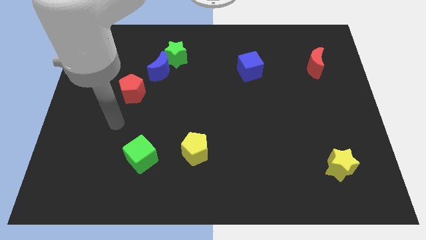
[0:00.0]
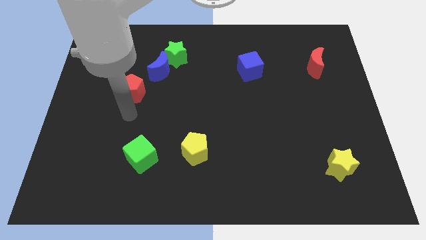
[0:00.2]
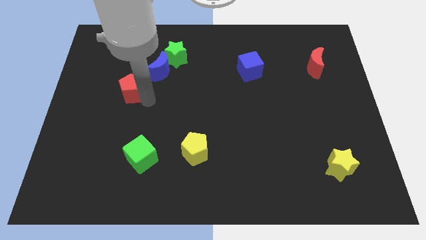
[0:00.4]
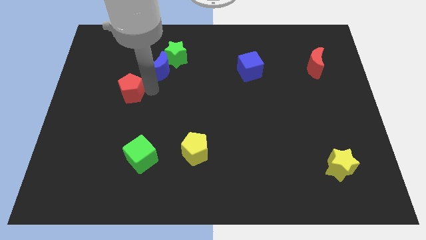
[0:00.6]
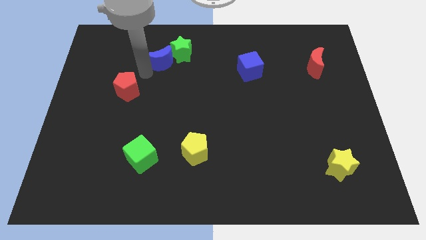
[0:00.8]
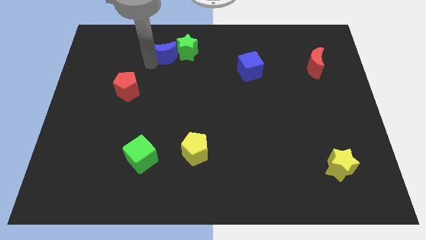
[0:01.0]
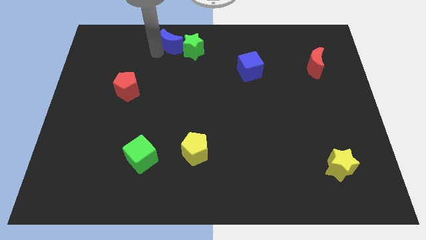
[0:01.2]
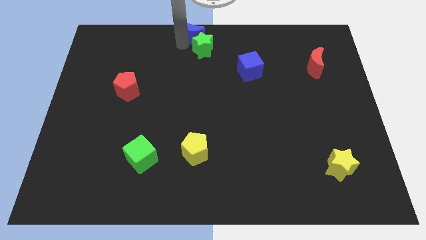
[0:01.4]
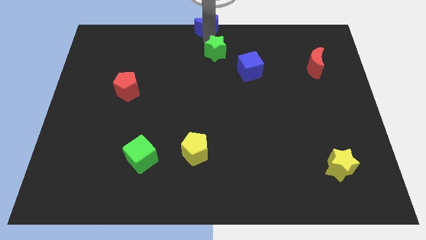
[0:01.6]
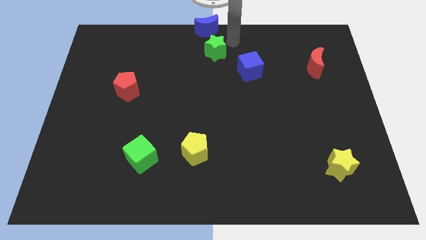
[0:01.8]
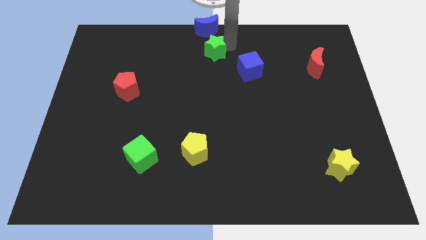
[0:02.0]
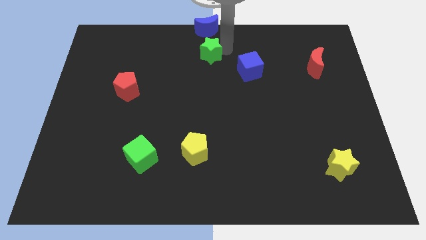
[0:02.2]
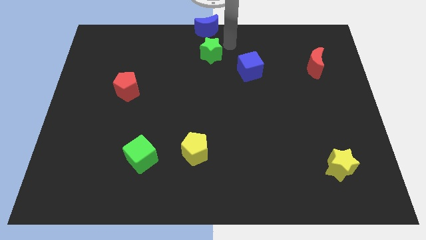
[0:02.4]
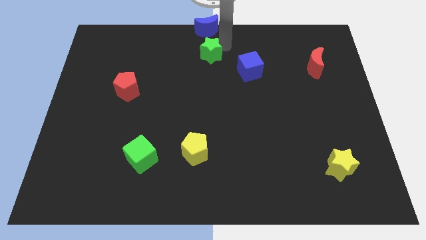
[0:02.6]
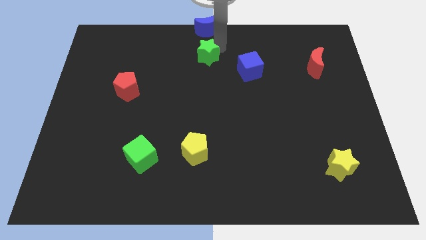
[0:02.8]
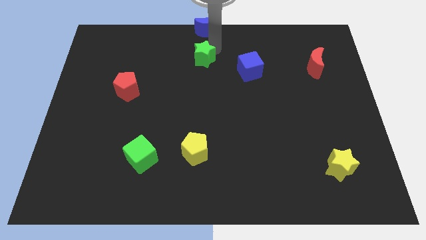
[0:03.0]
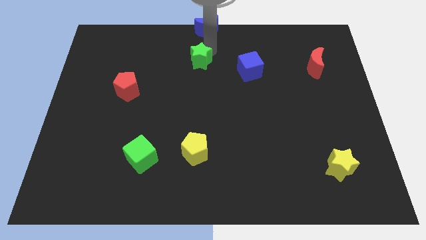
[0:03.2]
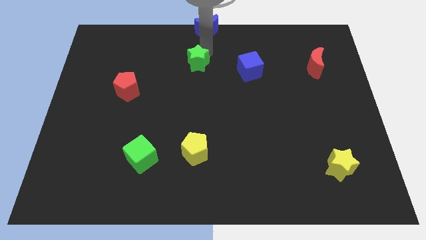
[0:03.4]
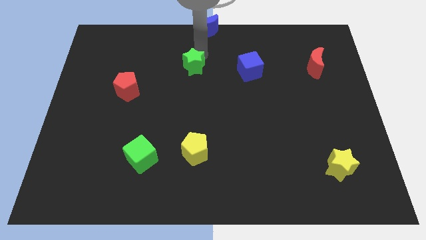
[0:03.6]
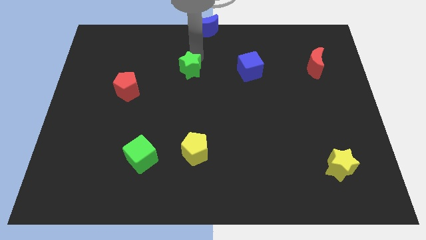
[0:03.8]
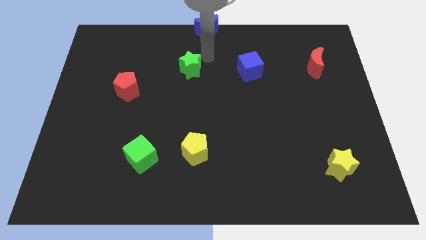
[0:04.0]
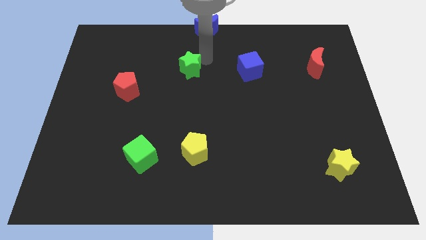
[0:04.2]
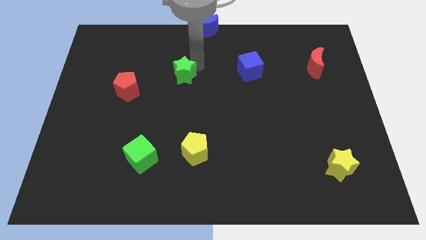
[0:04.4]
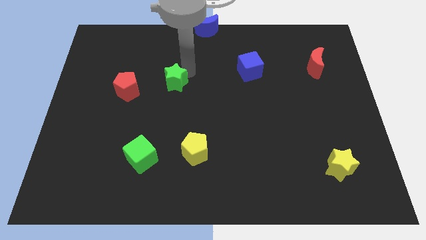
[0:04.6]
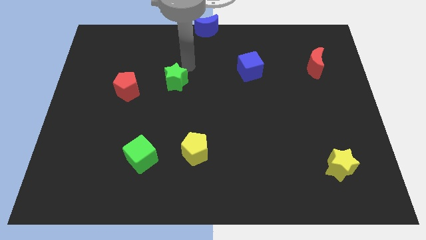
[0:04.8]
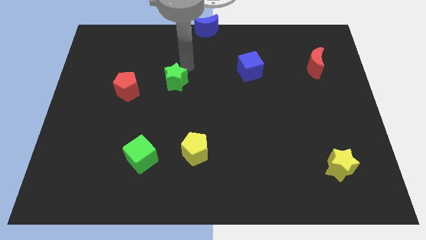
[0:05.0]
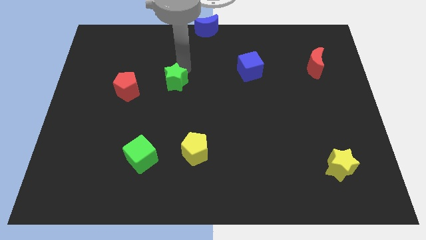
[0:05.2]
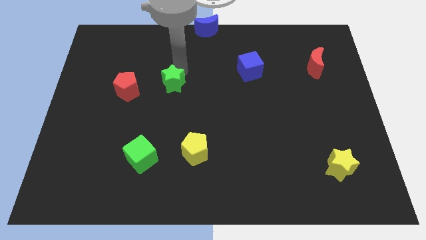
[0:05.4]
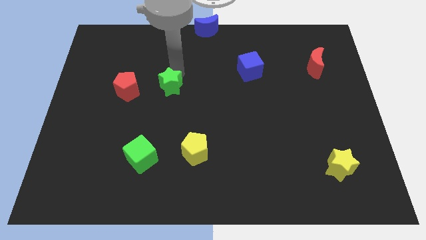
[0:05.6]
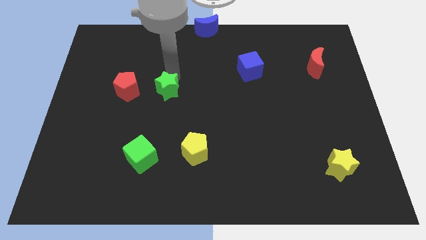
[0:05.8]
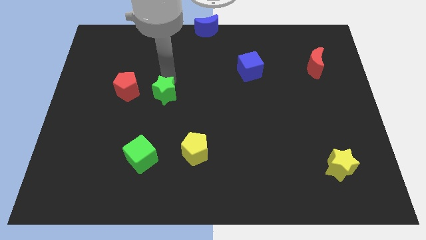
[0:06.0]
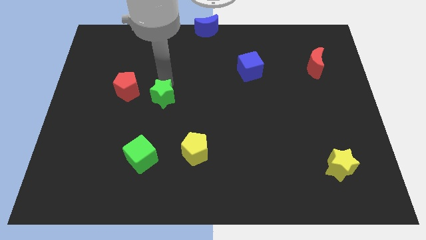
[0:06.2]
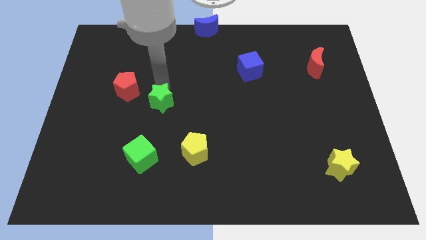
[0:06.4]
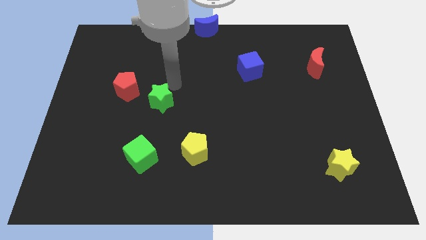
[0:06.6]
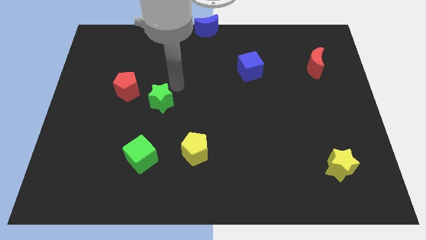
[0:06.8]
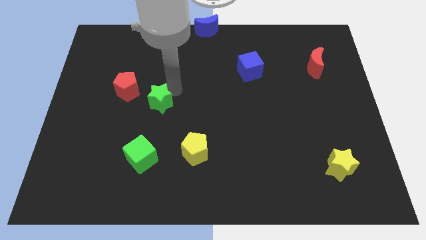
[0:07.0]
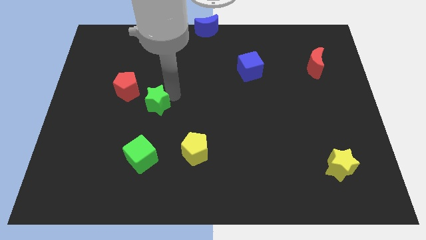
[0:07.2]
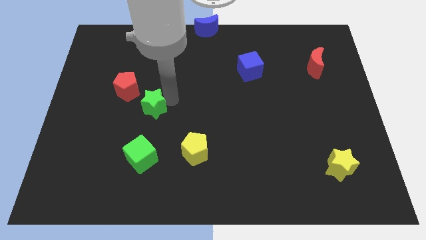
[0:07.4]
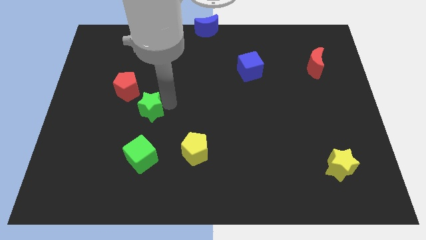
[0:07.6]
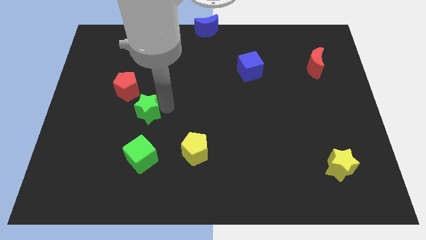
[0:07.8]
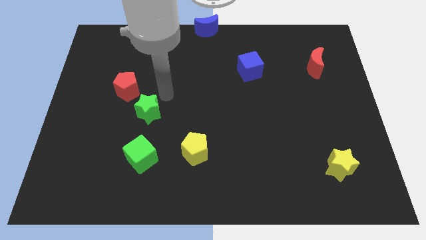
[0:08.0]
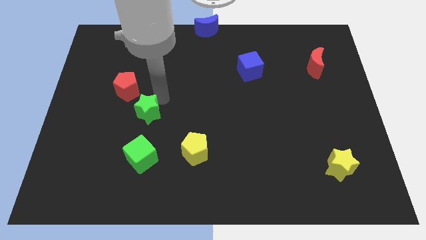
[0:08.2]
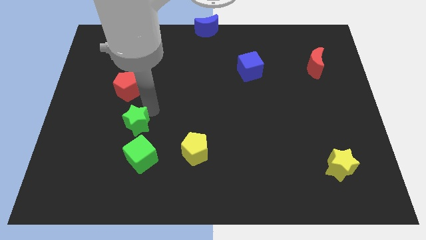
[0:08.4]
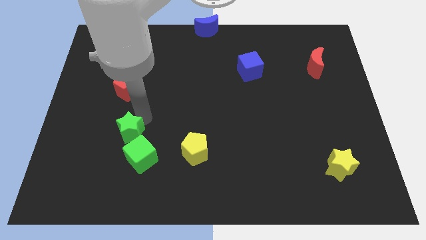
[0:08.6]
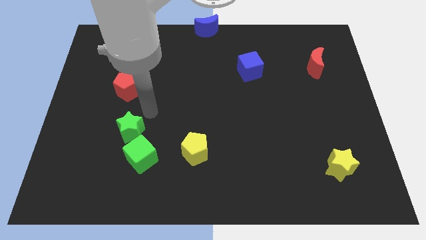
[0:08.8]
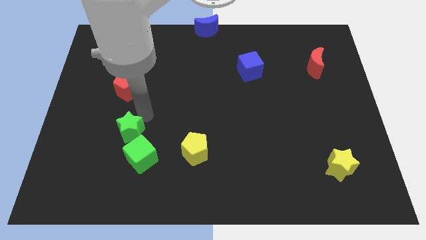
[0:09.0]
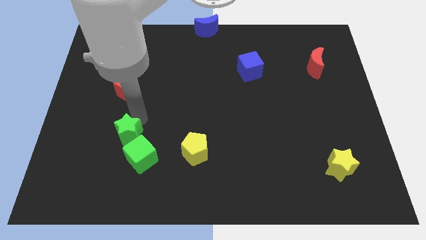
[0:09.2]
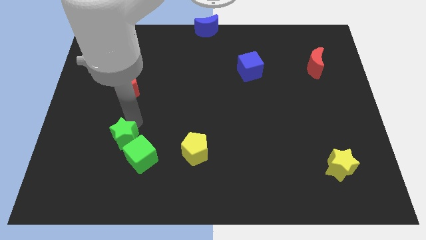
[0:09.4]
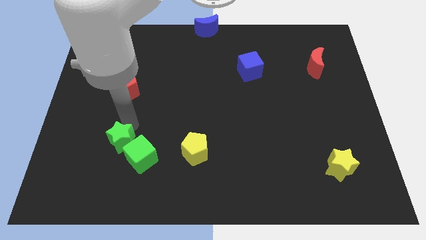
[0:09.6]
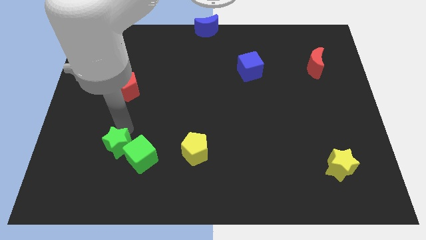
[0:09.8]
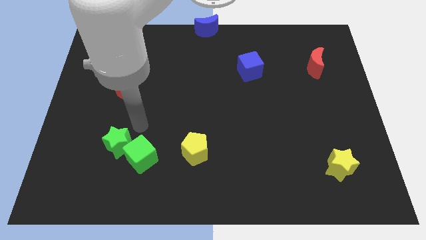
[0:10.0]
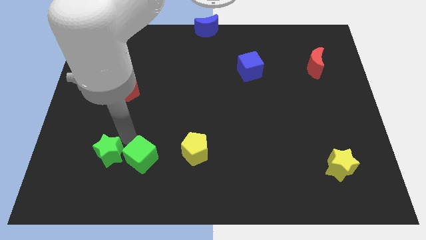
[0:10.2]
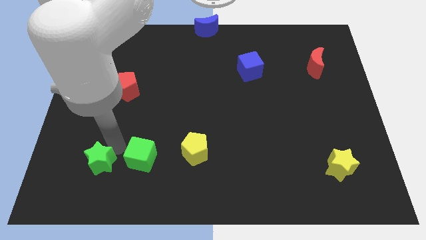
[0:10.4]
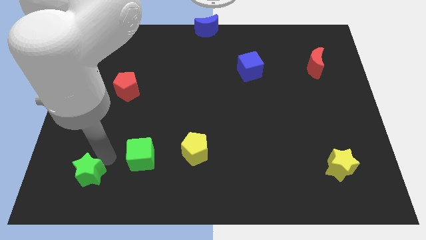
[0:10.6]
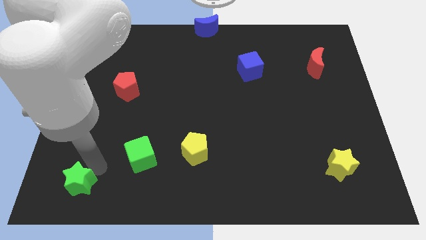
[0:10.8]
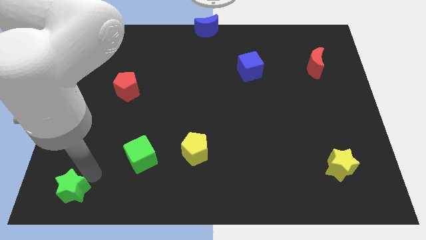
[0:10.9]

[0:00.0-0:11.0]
move the green star to the bottom left
